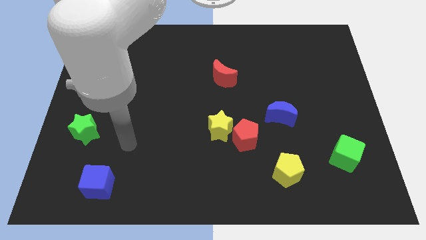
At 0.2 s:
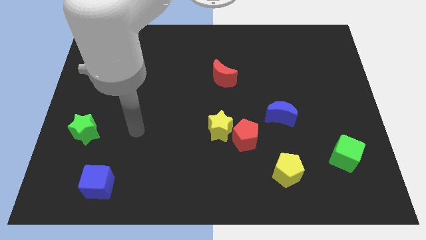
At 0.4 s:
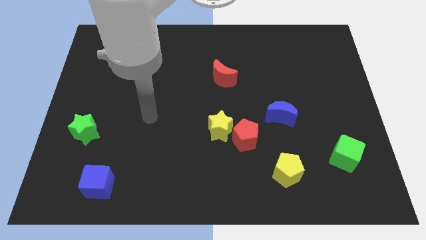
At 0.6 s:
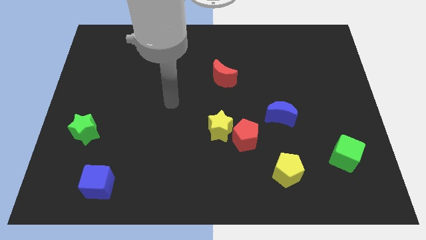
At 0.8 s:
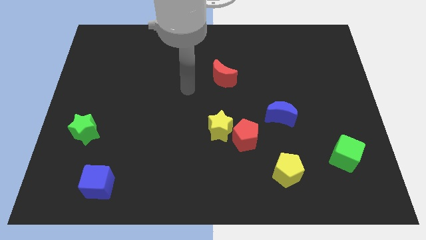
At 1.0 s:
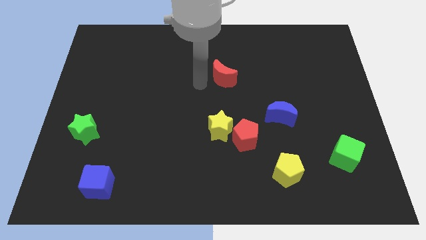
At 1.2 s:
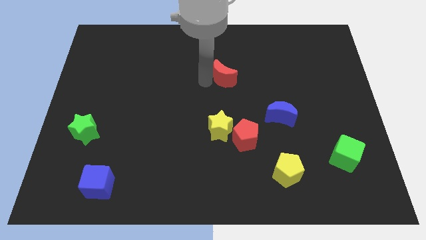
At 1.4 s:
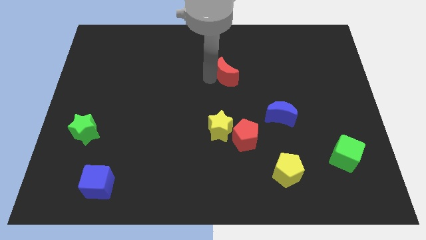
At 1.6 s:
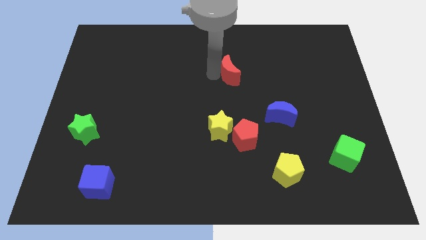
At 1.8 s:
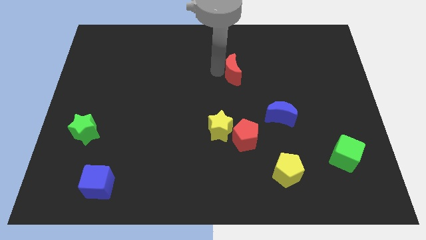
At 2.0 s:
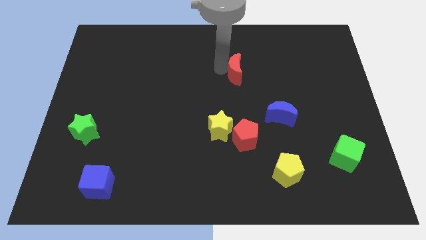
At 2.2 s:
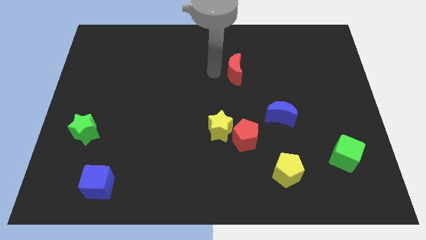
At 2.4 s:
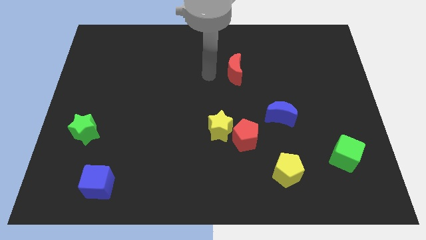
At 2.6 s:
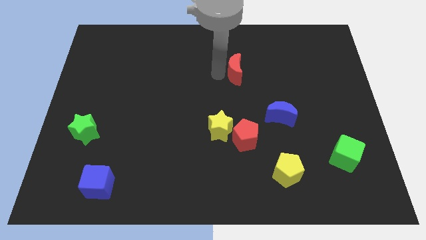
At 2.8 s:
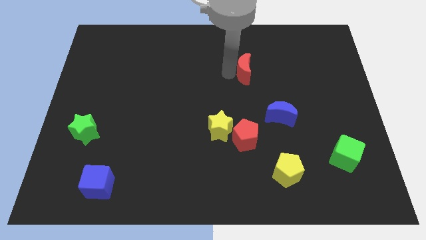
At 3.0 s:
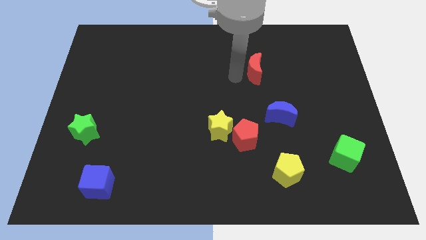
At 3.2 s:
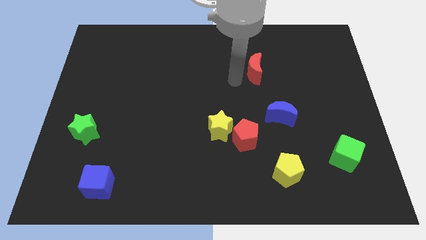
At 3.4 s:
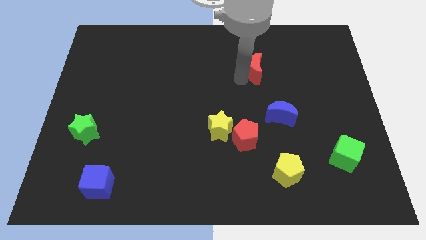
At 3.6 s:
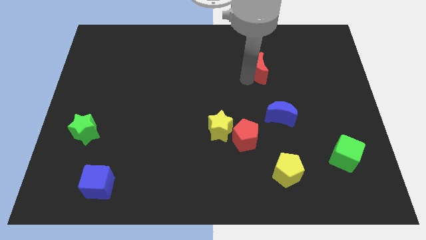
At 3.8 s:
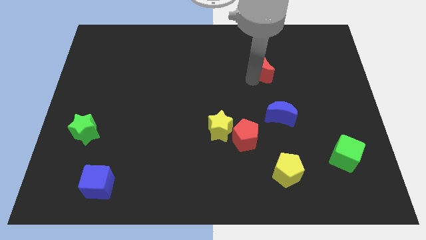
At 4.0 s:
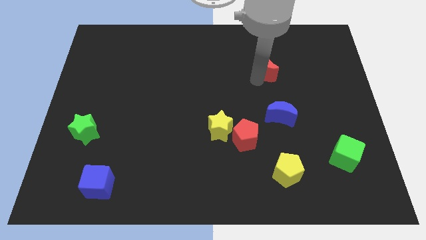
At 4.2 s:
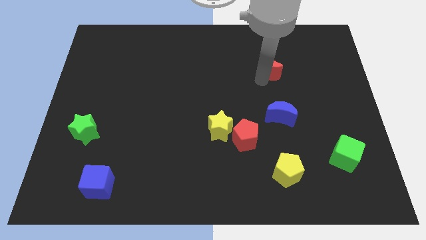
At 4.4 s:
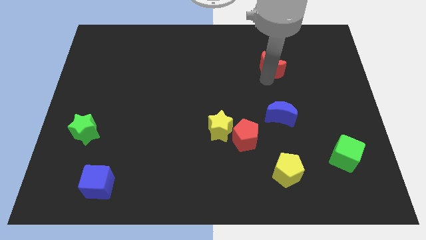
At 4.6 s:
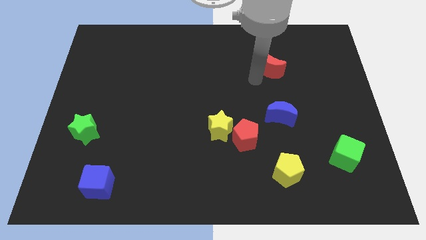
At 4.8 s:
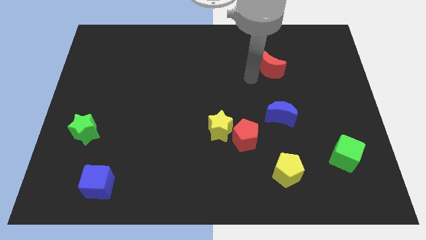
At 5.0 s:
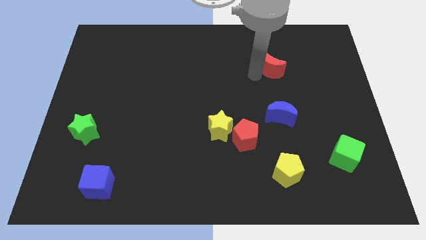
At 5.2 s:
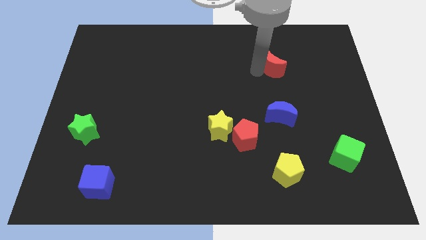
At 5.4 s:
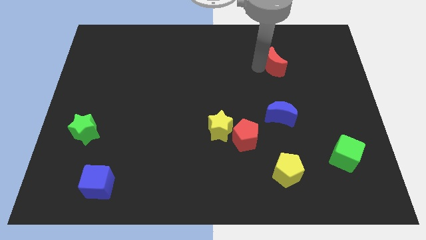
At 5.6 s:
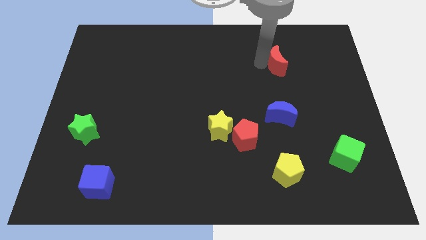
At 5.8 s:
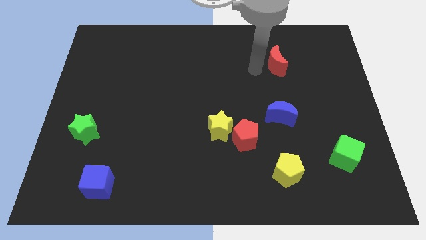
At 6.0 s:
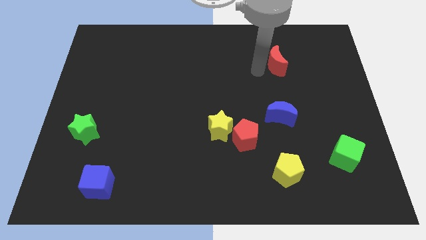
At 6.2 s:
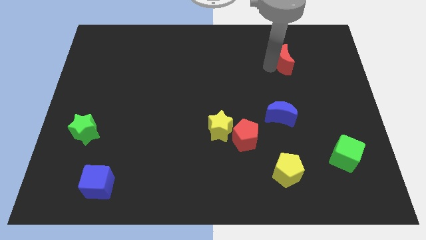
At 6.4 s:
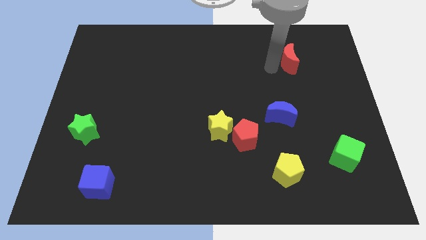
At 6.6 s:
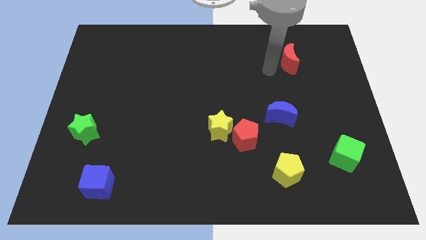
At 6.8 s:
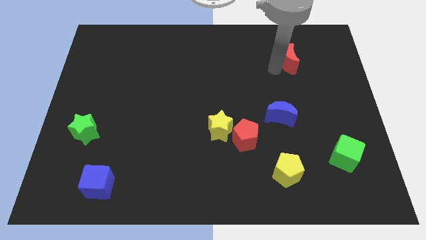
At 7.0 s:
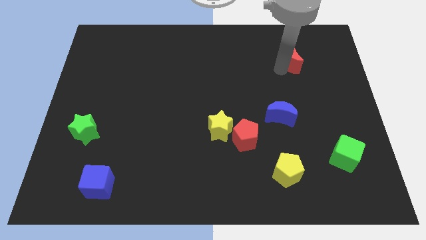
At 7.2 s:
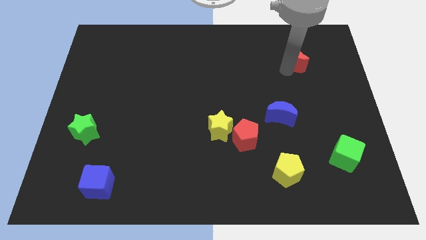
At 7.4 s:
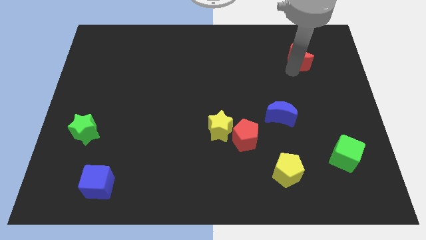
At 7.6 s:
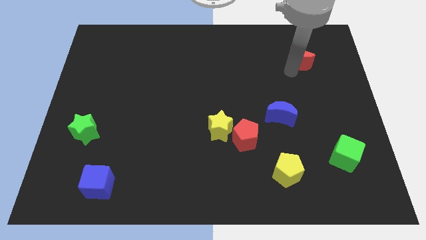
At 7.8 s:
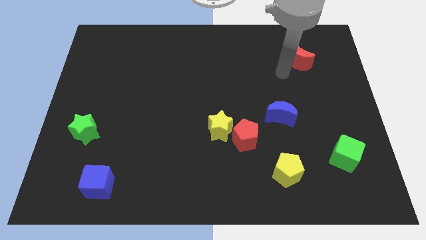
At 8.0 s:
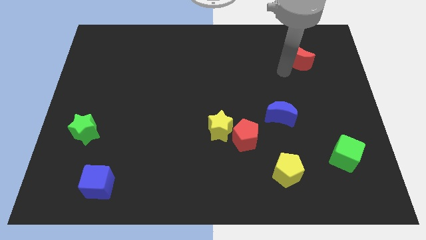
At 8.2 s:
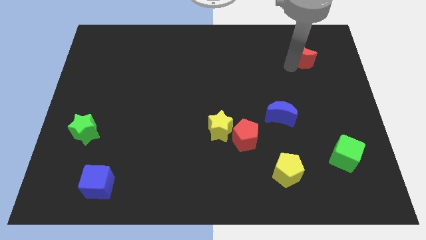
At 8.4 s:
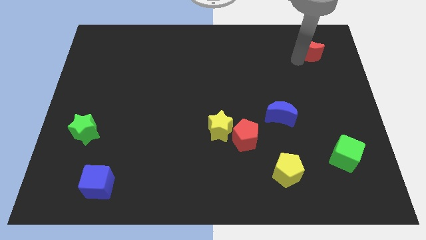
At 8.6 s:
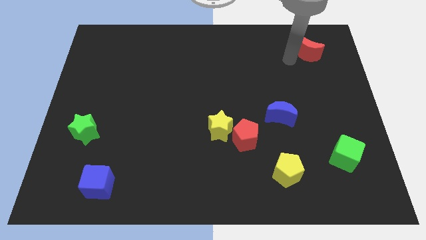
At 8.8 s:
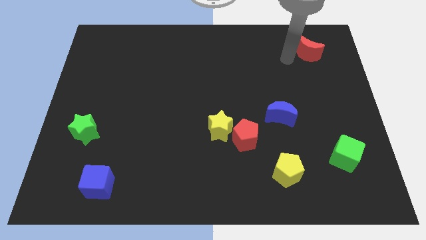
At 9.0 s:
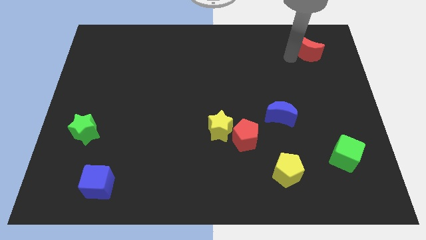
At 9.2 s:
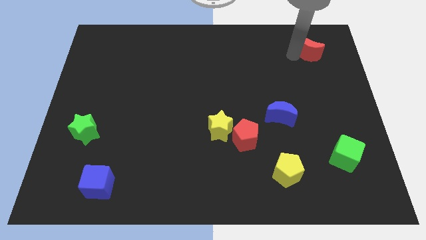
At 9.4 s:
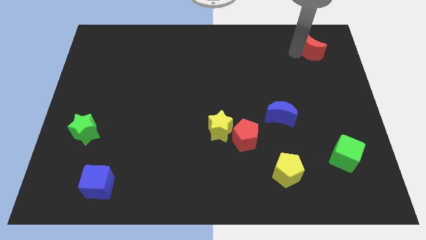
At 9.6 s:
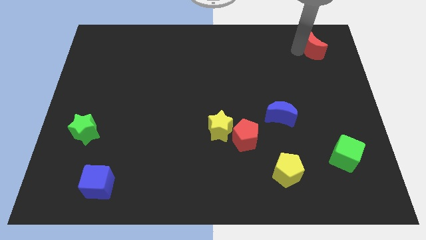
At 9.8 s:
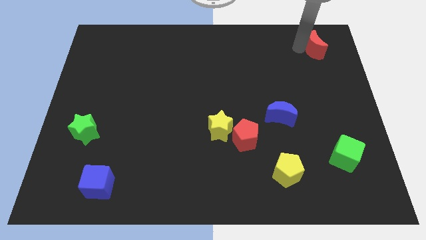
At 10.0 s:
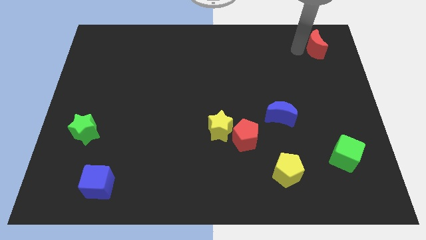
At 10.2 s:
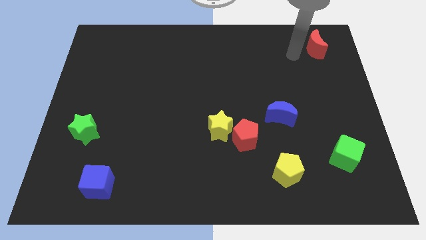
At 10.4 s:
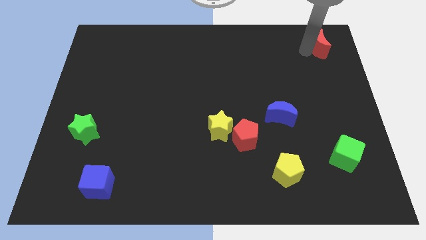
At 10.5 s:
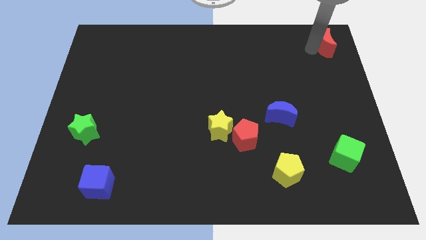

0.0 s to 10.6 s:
move the red moon to the top right
